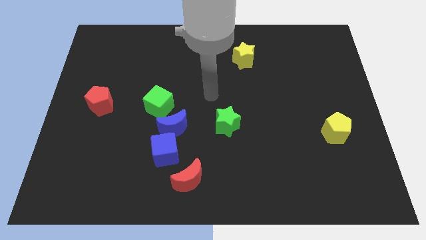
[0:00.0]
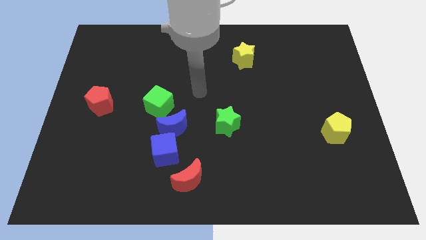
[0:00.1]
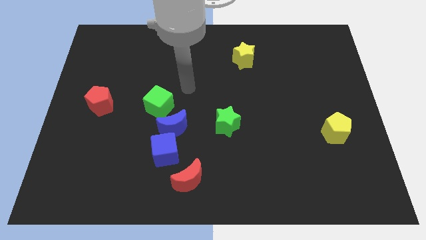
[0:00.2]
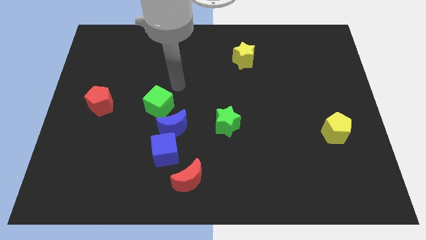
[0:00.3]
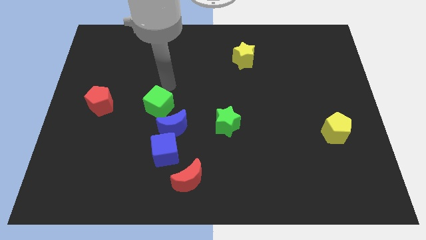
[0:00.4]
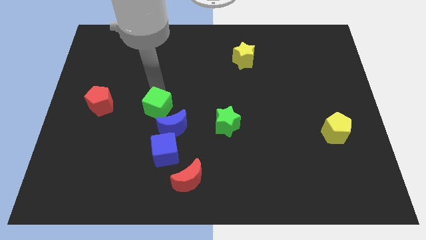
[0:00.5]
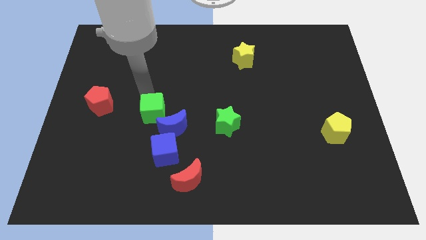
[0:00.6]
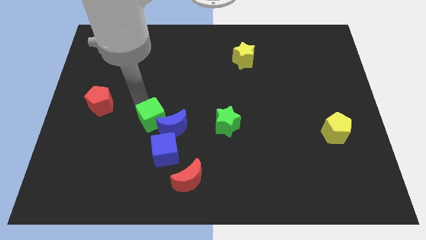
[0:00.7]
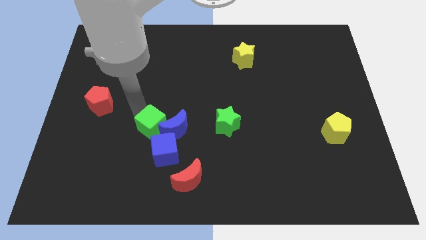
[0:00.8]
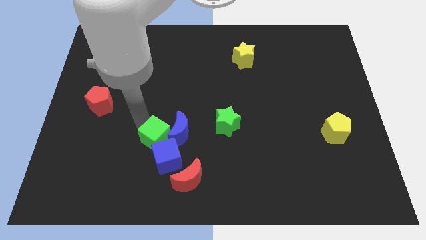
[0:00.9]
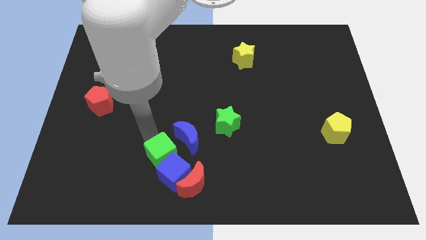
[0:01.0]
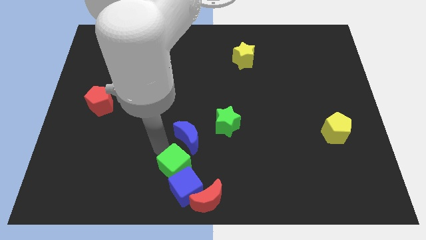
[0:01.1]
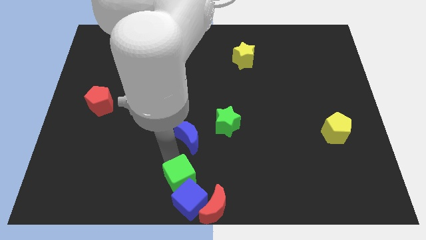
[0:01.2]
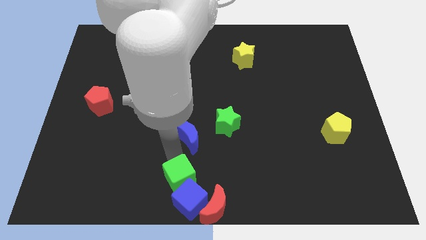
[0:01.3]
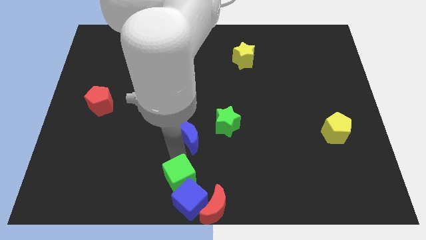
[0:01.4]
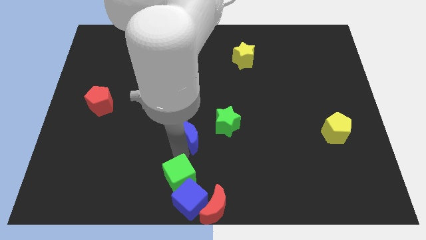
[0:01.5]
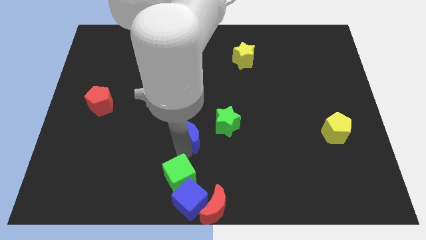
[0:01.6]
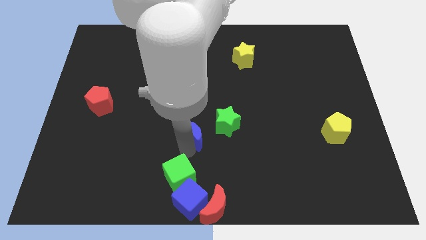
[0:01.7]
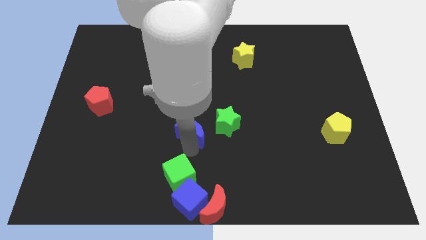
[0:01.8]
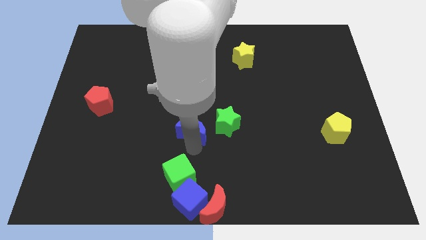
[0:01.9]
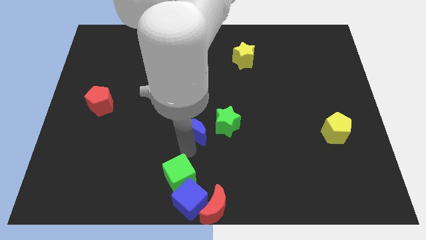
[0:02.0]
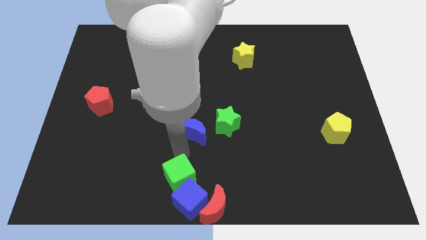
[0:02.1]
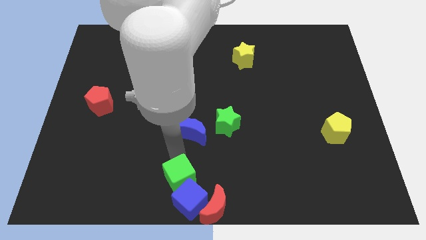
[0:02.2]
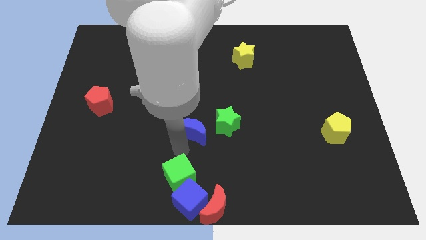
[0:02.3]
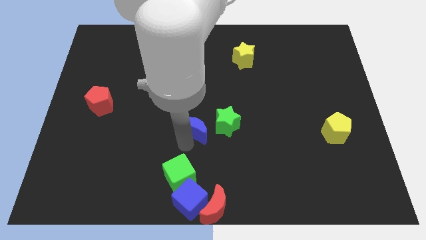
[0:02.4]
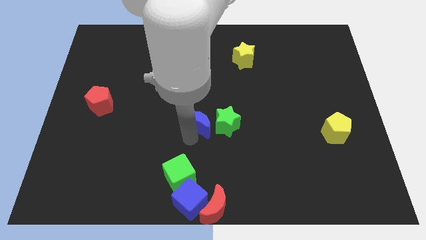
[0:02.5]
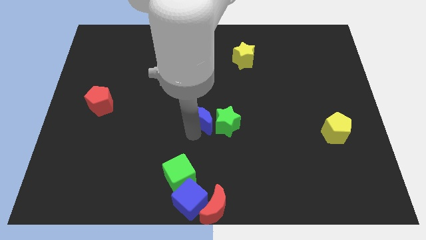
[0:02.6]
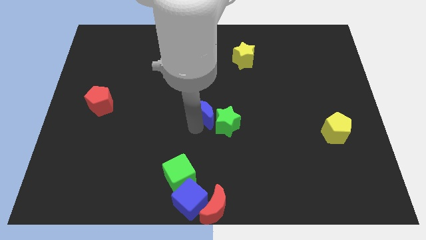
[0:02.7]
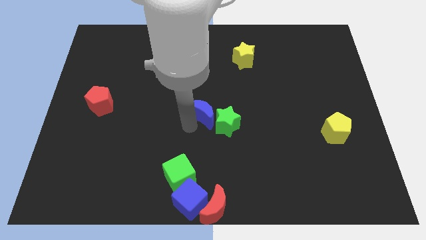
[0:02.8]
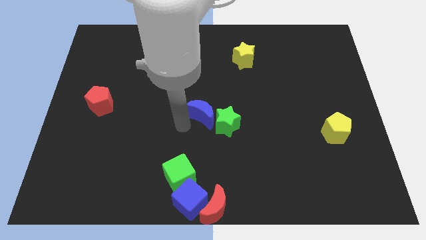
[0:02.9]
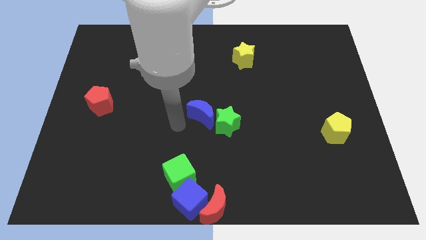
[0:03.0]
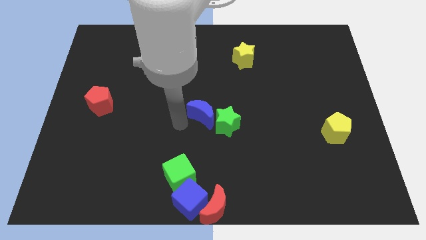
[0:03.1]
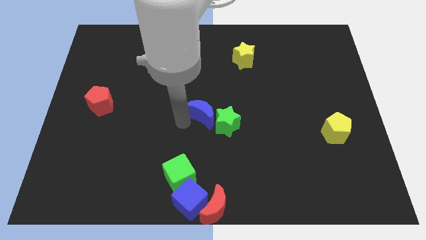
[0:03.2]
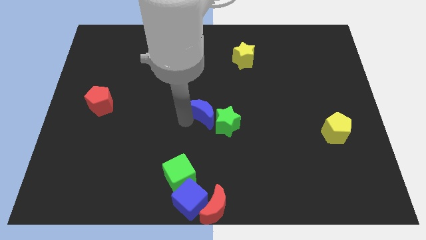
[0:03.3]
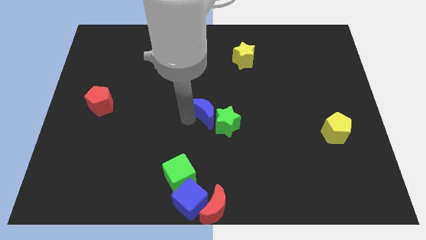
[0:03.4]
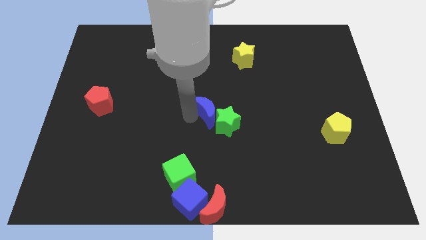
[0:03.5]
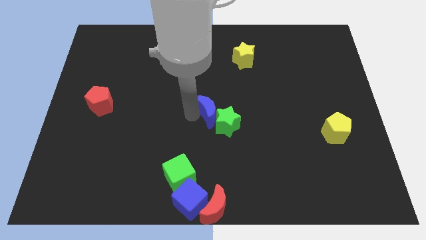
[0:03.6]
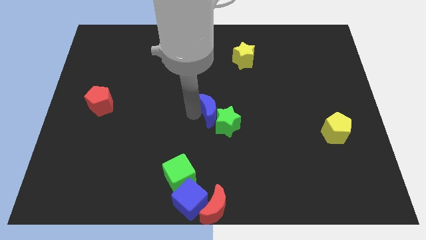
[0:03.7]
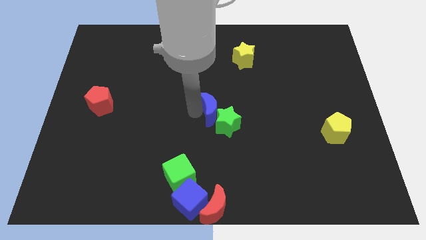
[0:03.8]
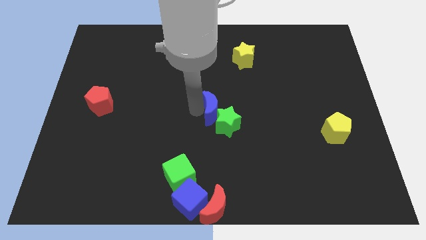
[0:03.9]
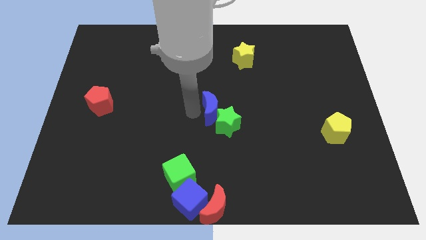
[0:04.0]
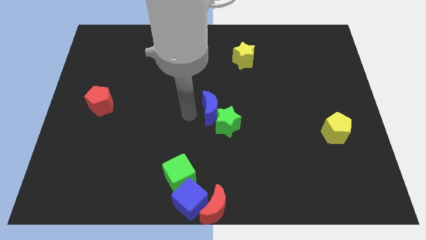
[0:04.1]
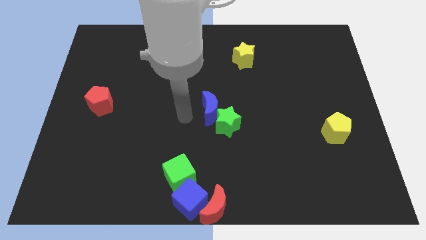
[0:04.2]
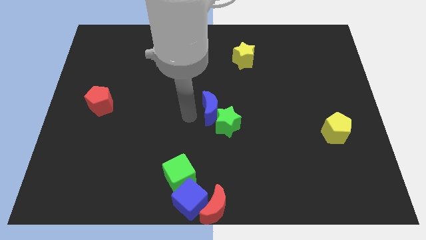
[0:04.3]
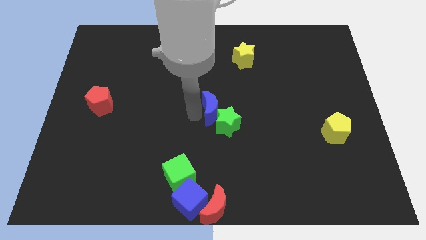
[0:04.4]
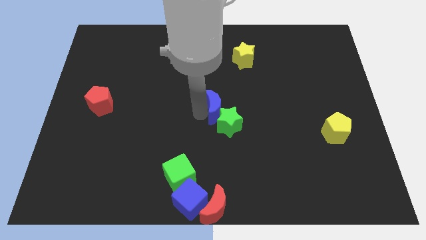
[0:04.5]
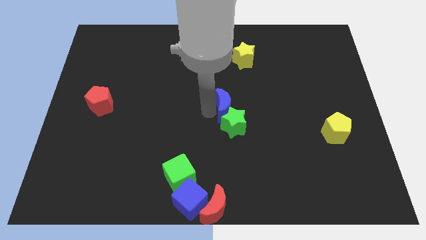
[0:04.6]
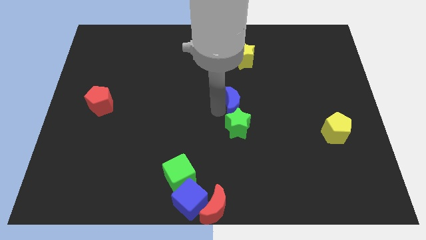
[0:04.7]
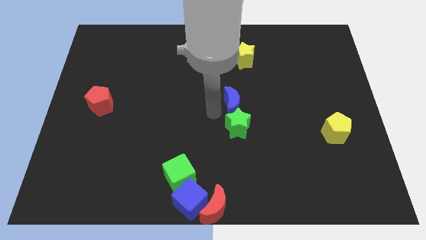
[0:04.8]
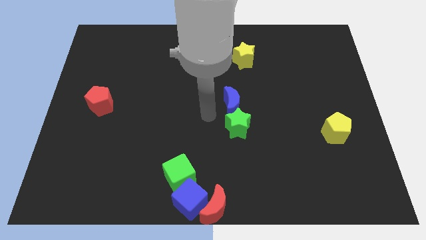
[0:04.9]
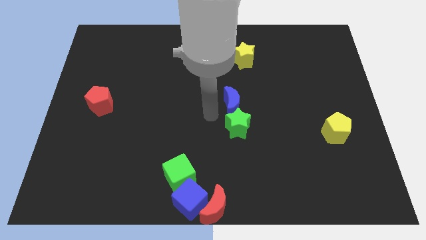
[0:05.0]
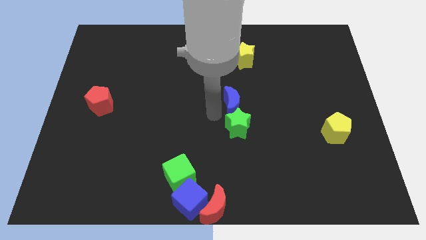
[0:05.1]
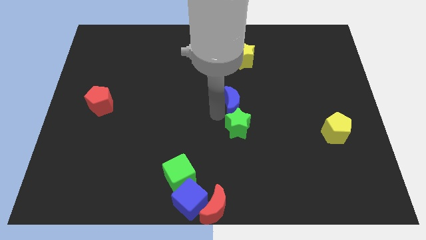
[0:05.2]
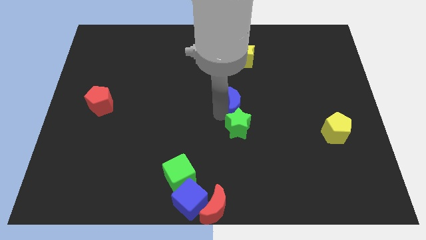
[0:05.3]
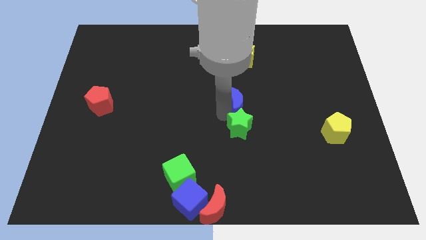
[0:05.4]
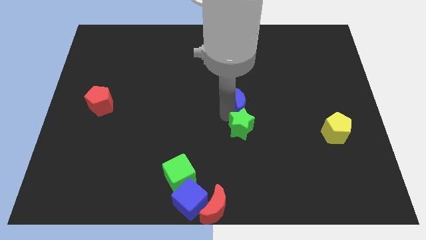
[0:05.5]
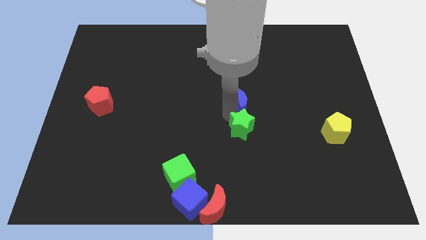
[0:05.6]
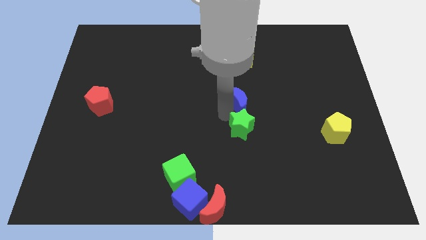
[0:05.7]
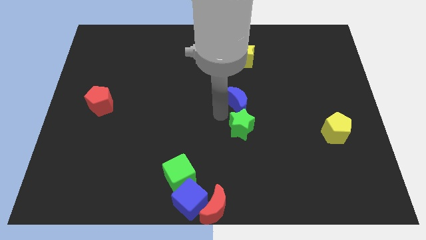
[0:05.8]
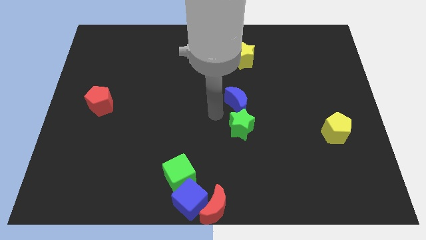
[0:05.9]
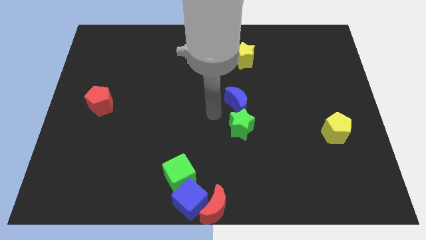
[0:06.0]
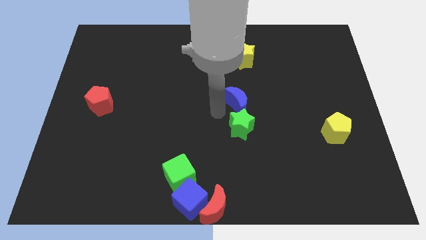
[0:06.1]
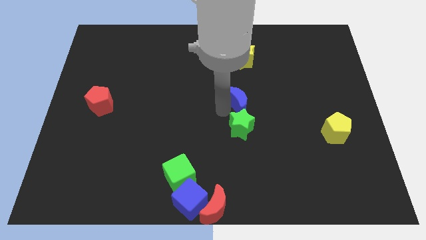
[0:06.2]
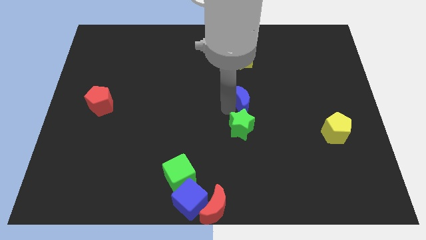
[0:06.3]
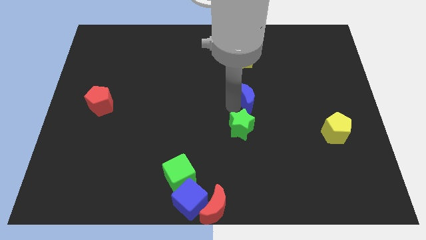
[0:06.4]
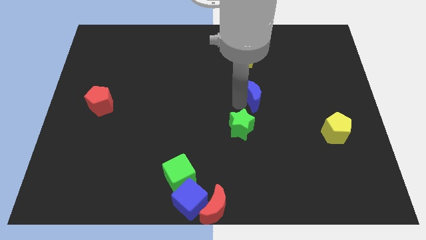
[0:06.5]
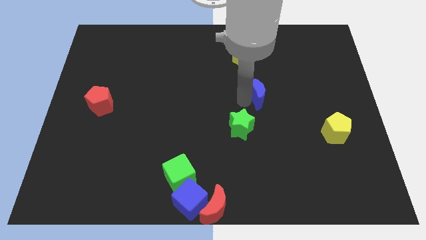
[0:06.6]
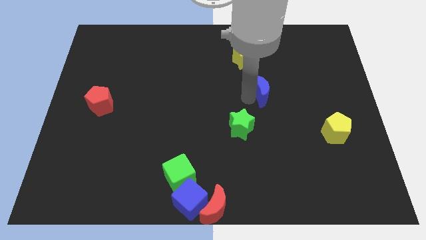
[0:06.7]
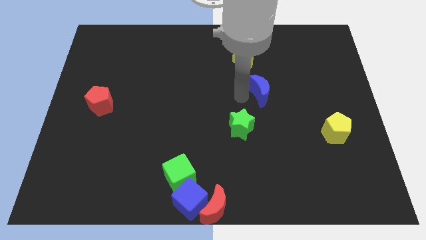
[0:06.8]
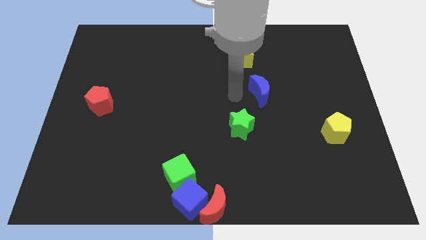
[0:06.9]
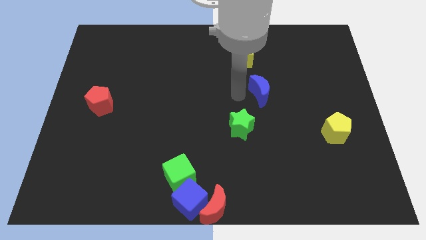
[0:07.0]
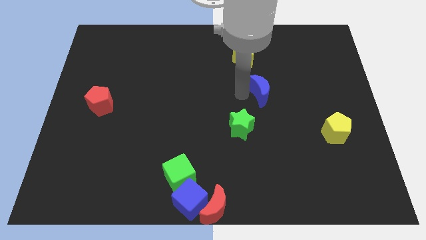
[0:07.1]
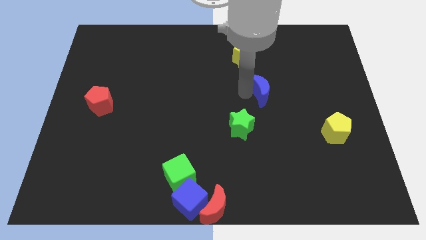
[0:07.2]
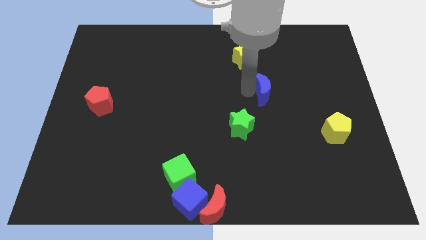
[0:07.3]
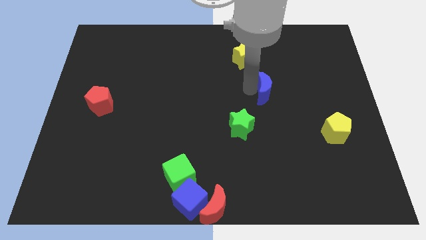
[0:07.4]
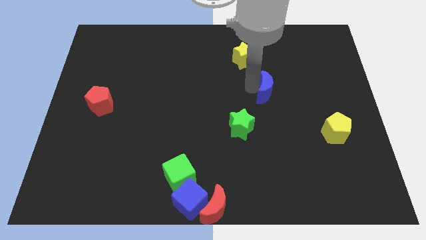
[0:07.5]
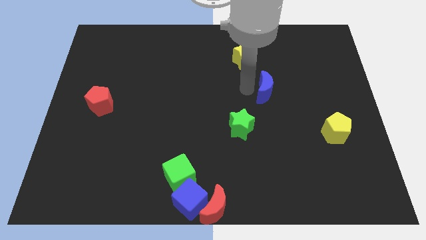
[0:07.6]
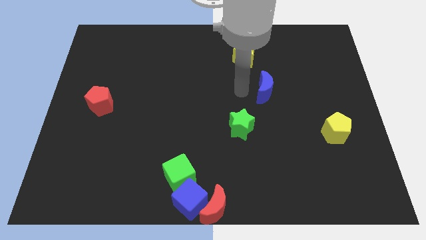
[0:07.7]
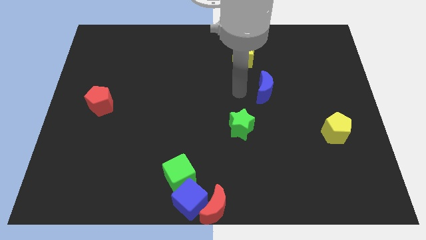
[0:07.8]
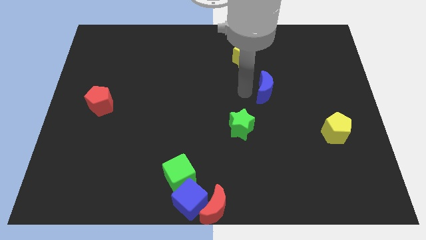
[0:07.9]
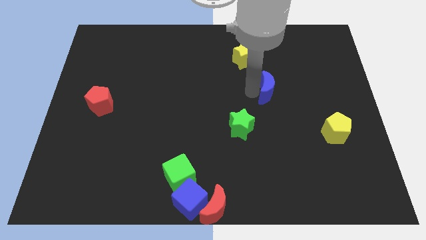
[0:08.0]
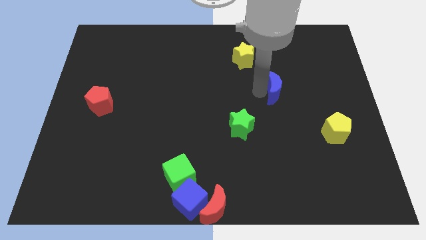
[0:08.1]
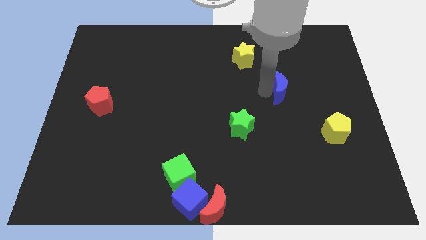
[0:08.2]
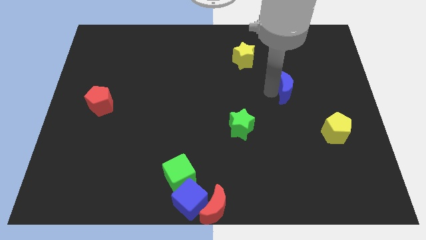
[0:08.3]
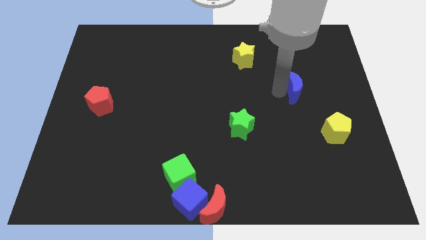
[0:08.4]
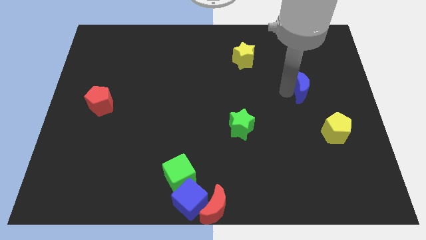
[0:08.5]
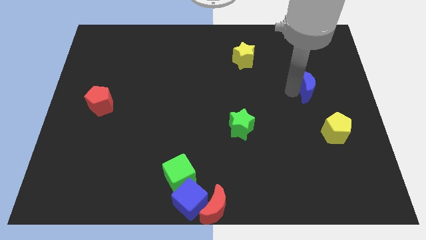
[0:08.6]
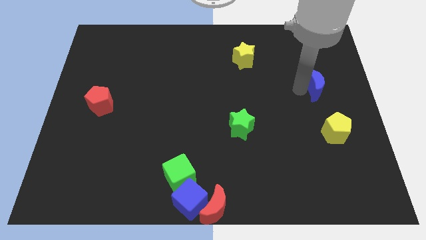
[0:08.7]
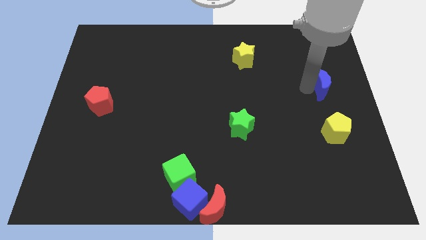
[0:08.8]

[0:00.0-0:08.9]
move the blue moon to the right side
